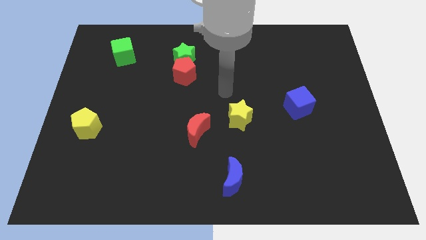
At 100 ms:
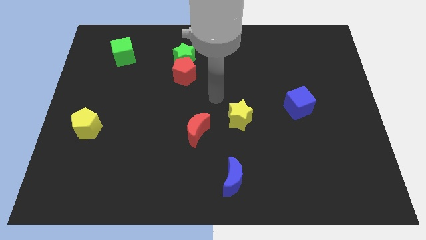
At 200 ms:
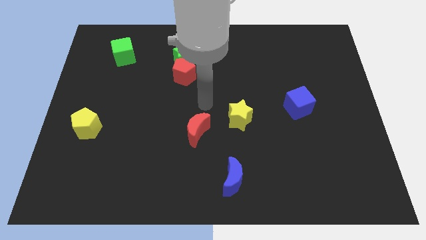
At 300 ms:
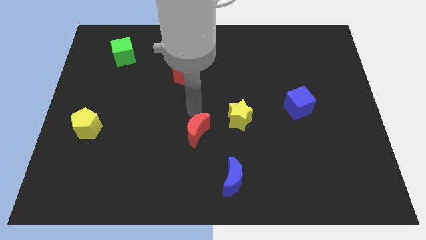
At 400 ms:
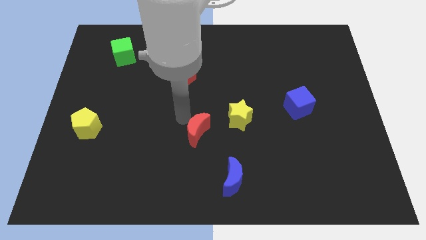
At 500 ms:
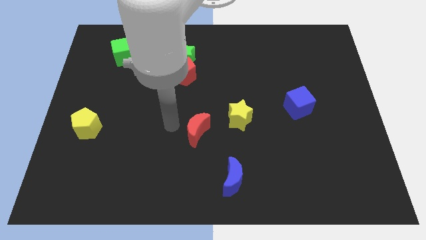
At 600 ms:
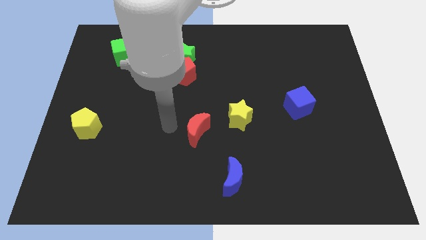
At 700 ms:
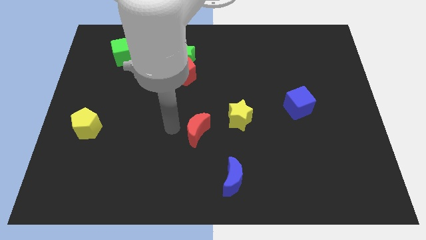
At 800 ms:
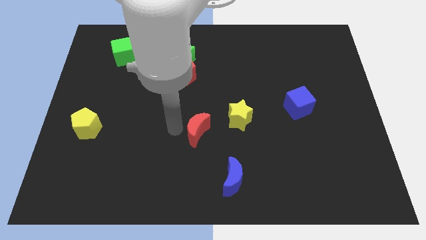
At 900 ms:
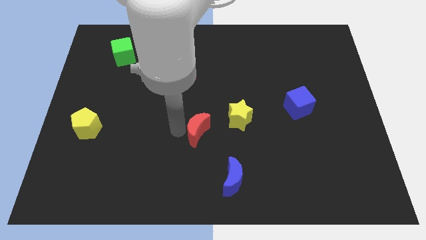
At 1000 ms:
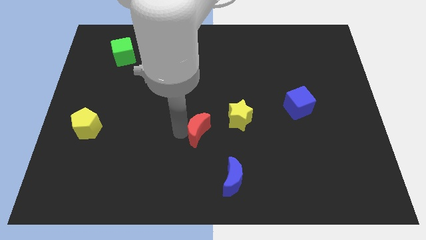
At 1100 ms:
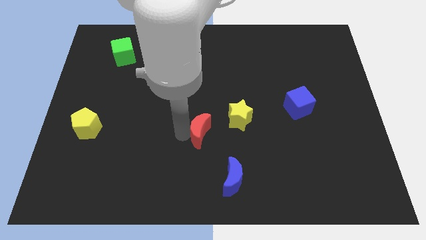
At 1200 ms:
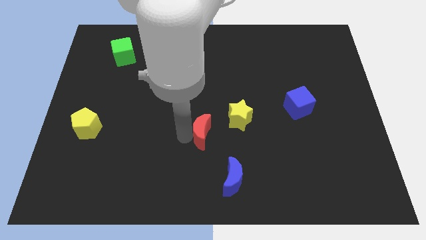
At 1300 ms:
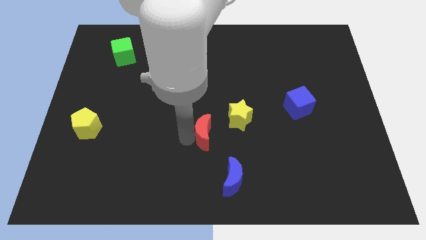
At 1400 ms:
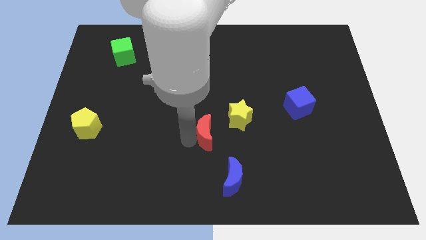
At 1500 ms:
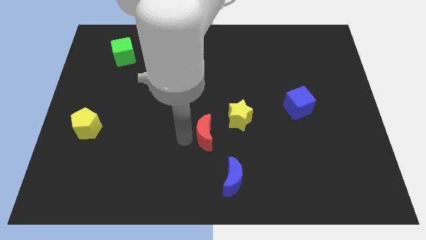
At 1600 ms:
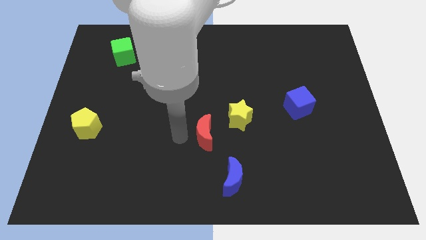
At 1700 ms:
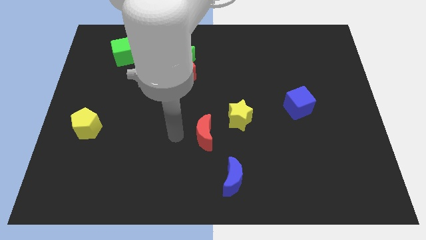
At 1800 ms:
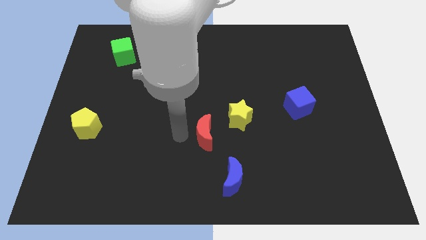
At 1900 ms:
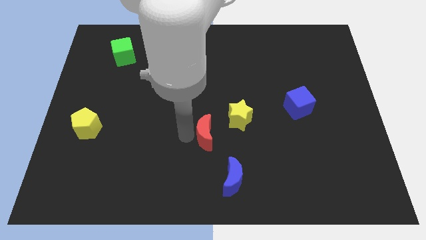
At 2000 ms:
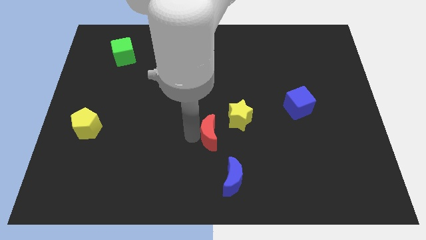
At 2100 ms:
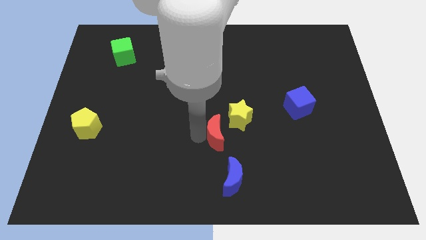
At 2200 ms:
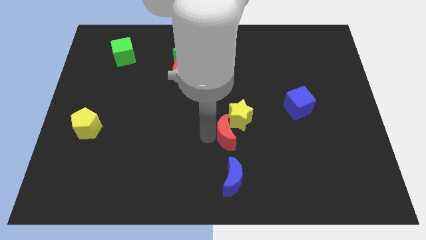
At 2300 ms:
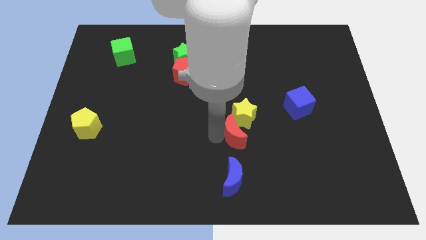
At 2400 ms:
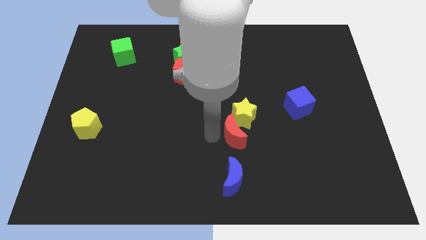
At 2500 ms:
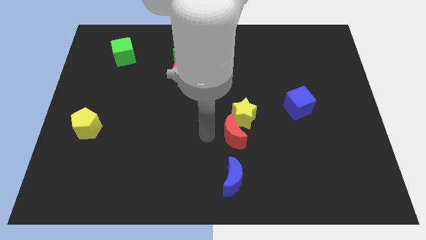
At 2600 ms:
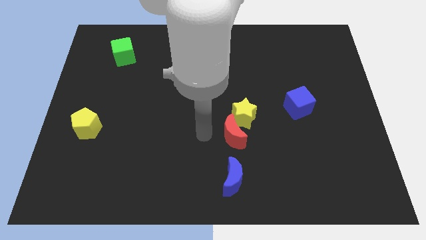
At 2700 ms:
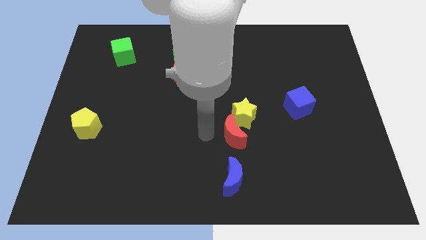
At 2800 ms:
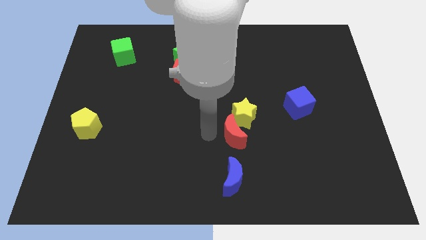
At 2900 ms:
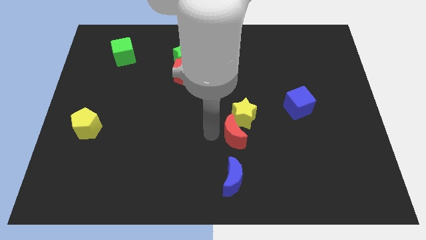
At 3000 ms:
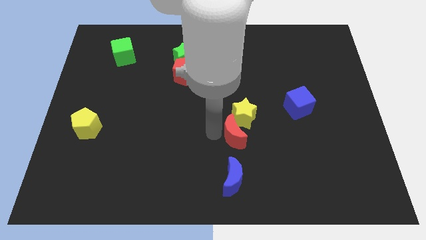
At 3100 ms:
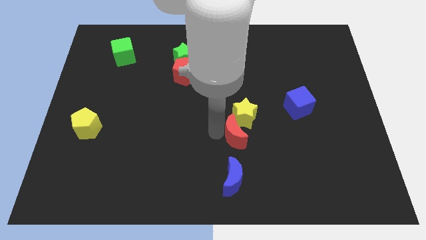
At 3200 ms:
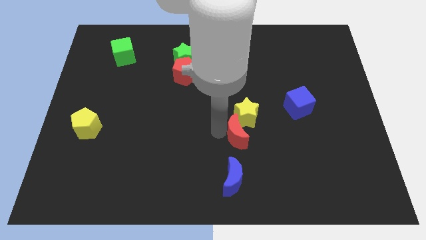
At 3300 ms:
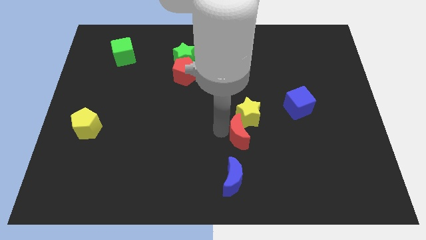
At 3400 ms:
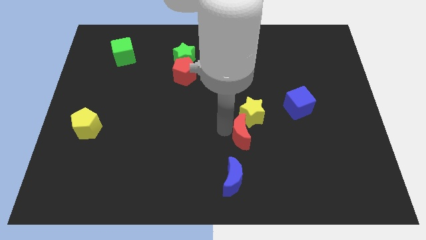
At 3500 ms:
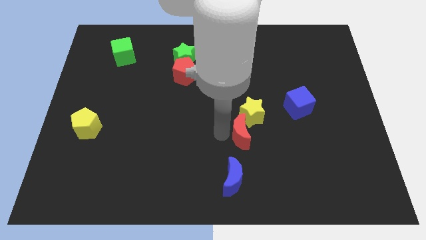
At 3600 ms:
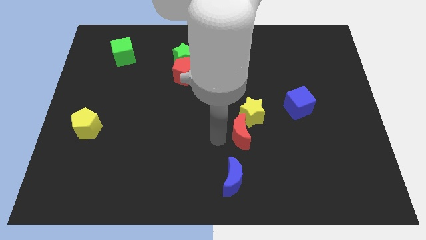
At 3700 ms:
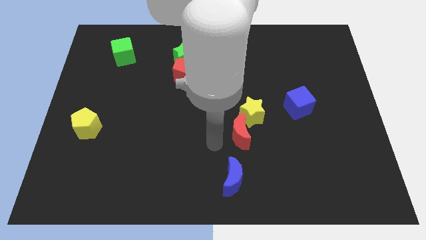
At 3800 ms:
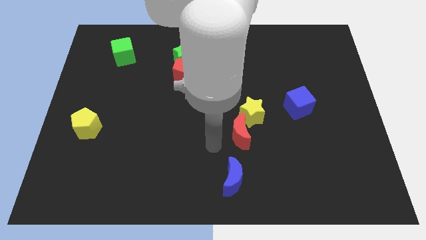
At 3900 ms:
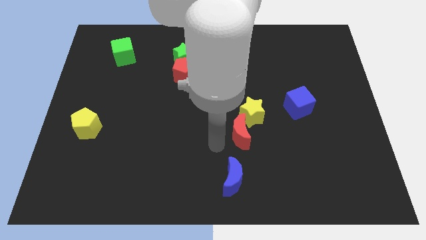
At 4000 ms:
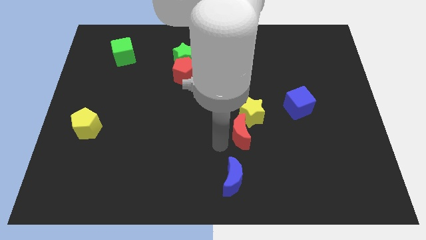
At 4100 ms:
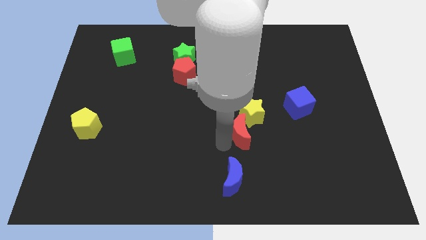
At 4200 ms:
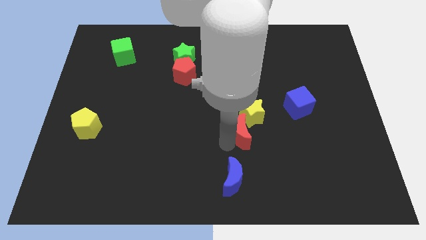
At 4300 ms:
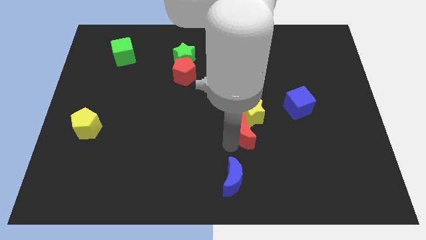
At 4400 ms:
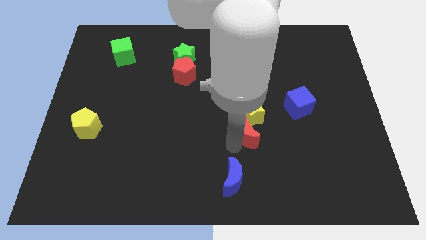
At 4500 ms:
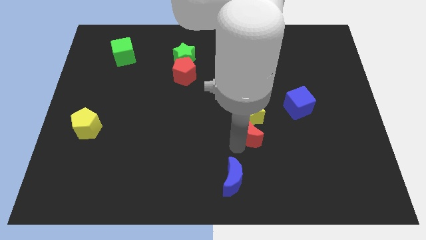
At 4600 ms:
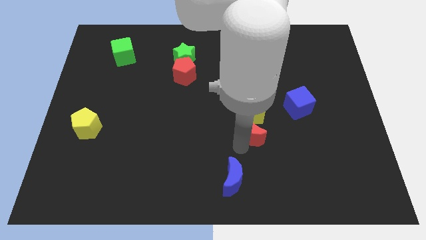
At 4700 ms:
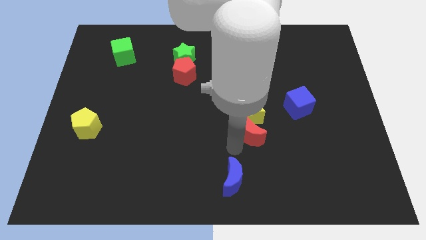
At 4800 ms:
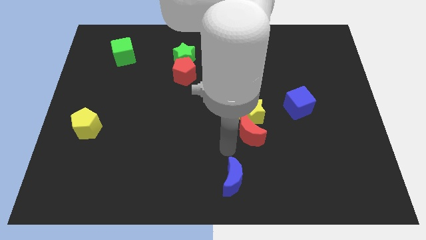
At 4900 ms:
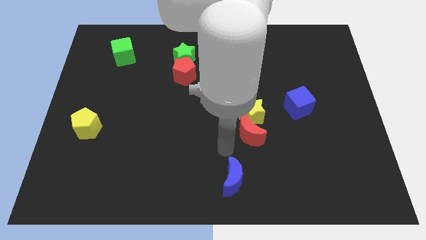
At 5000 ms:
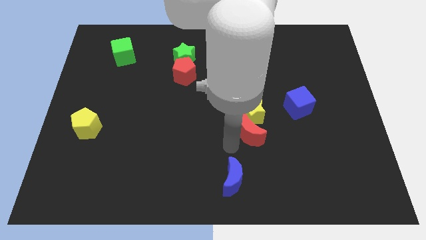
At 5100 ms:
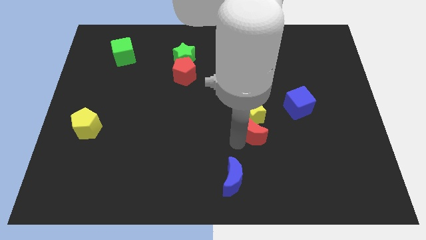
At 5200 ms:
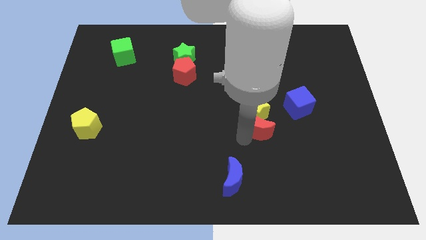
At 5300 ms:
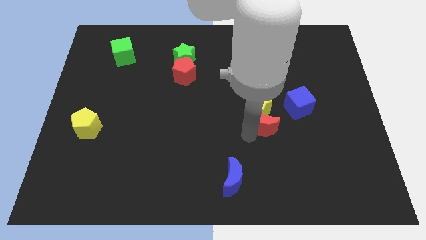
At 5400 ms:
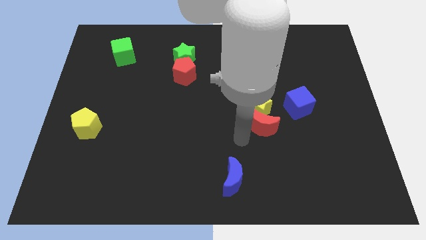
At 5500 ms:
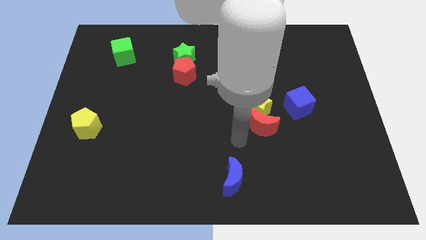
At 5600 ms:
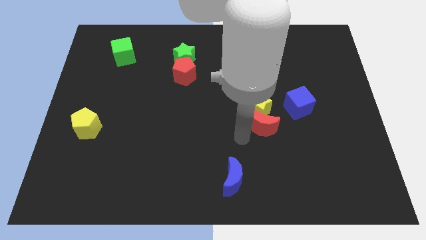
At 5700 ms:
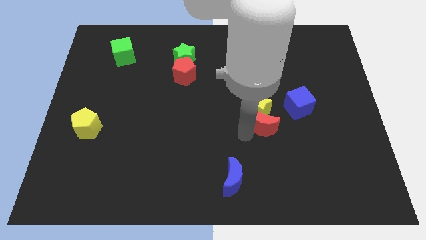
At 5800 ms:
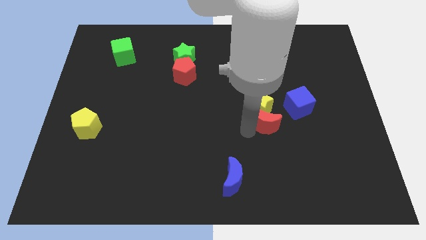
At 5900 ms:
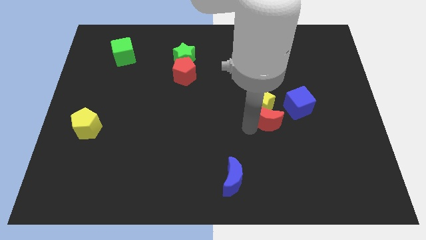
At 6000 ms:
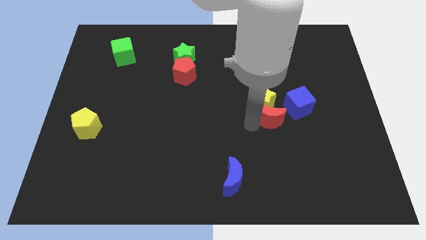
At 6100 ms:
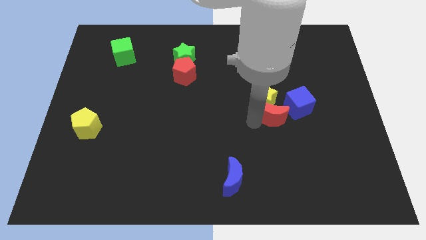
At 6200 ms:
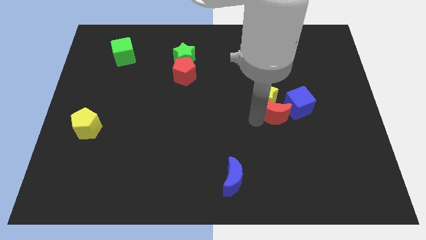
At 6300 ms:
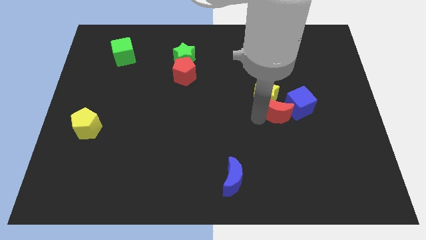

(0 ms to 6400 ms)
push the red moon to the blue cube
